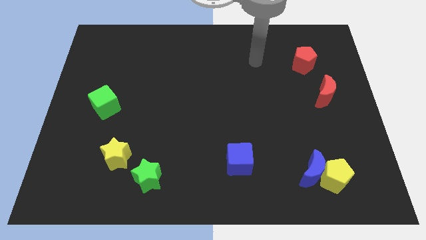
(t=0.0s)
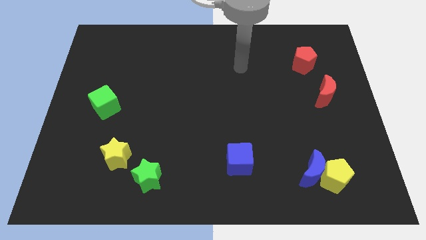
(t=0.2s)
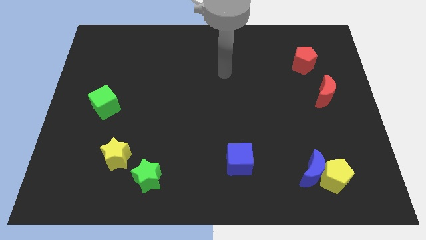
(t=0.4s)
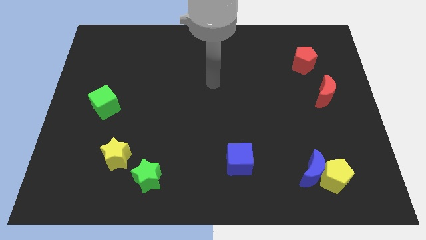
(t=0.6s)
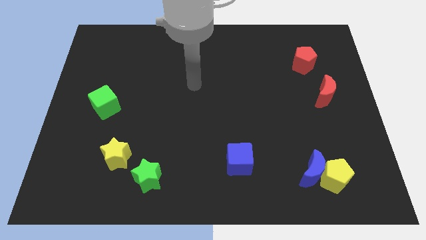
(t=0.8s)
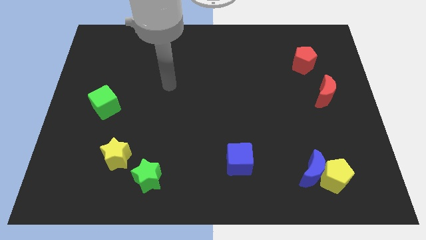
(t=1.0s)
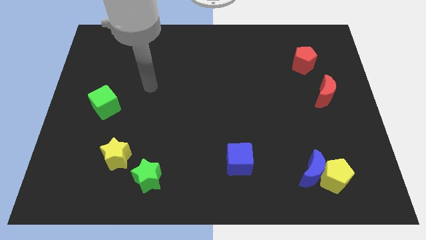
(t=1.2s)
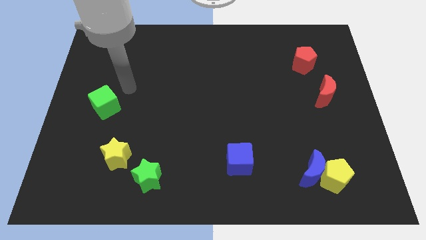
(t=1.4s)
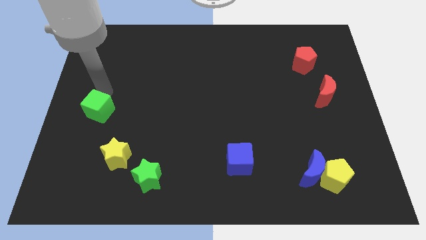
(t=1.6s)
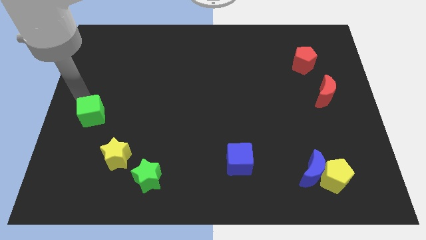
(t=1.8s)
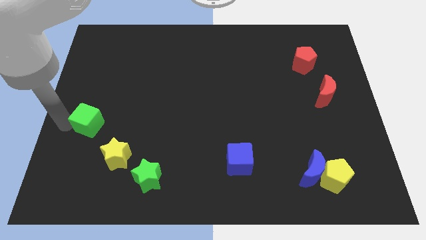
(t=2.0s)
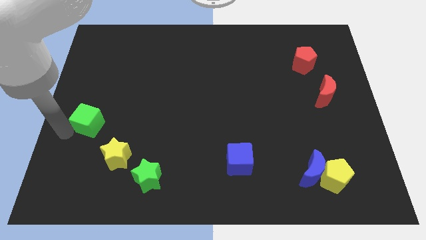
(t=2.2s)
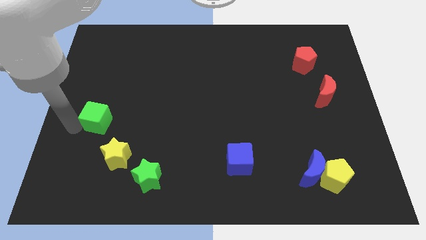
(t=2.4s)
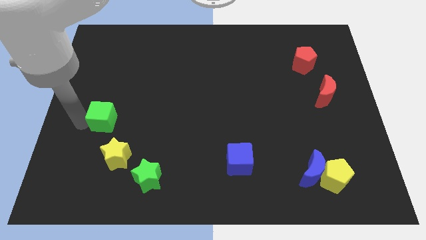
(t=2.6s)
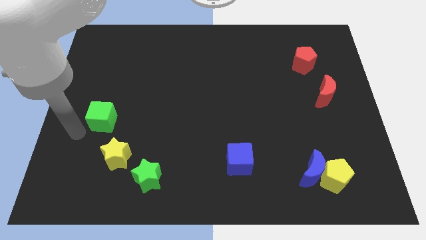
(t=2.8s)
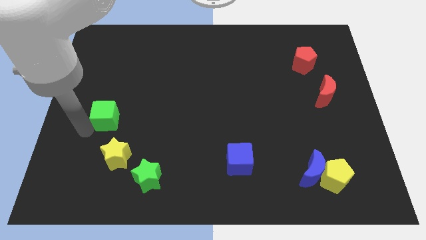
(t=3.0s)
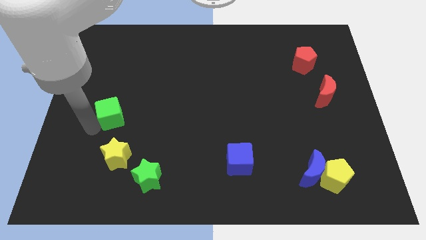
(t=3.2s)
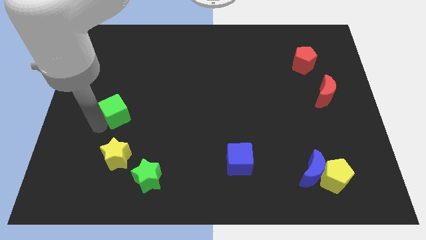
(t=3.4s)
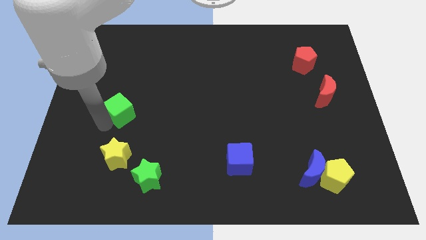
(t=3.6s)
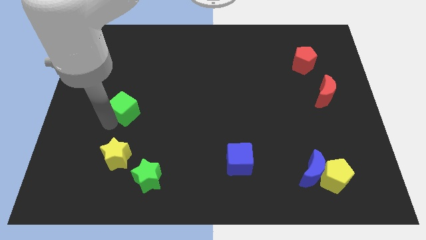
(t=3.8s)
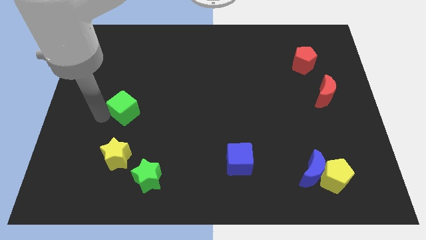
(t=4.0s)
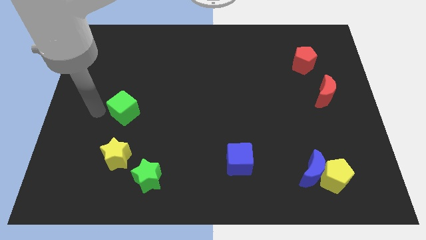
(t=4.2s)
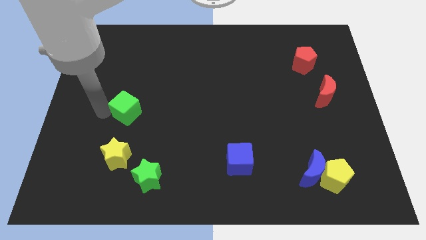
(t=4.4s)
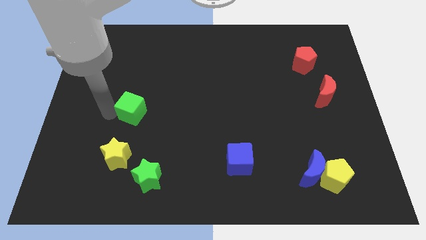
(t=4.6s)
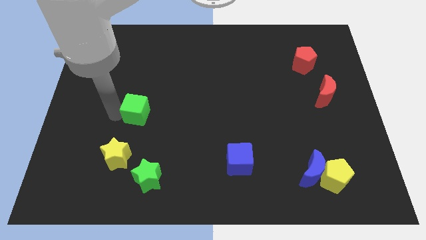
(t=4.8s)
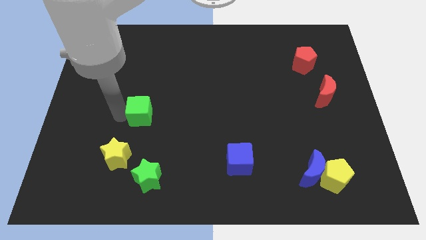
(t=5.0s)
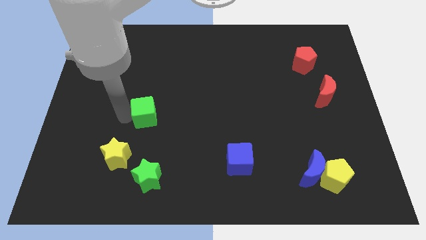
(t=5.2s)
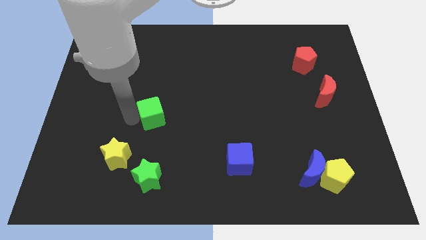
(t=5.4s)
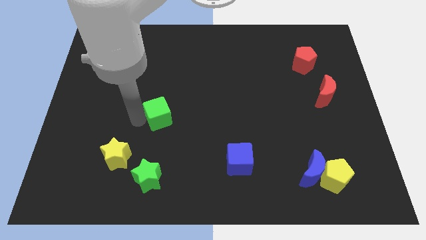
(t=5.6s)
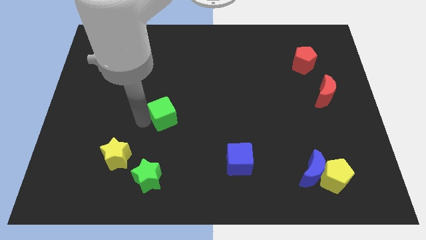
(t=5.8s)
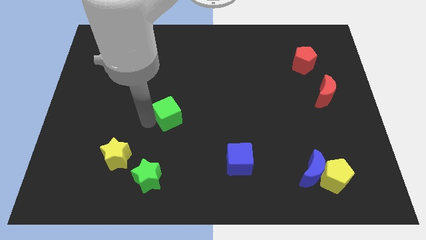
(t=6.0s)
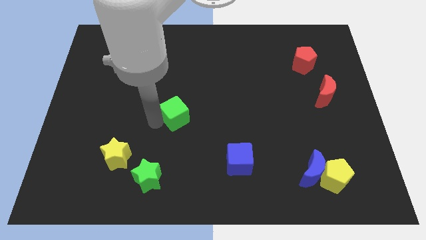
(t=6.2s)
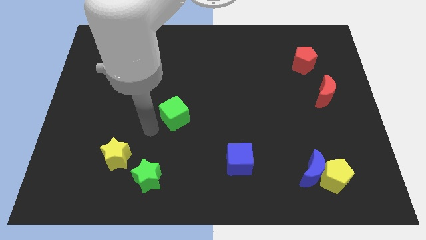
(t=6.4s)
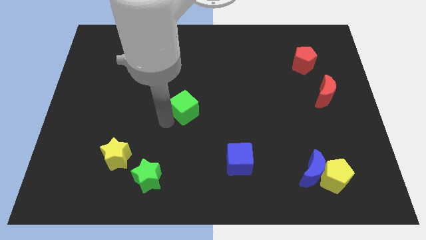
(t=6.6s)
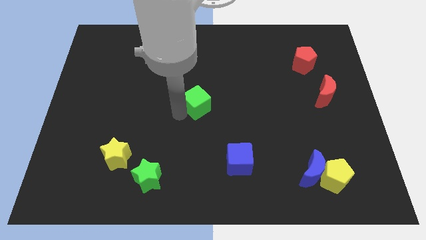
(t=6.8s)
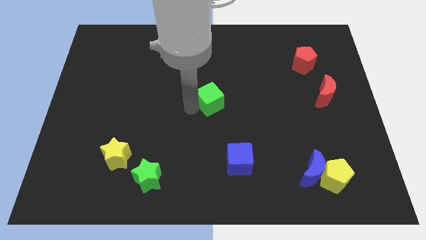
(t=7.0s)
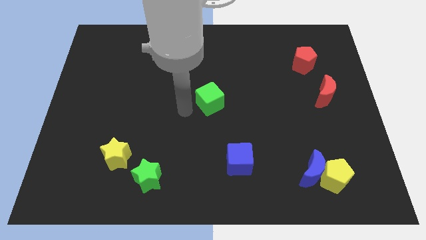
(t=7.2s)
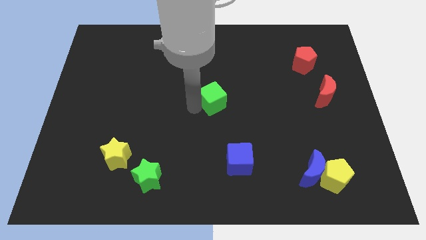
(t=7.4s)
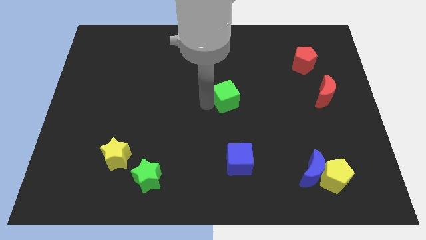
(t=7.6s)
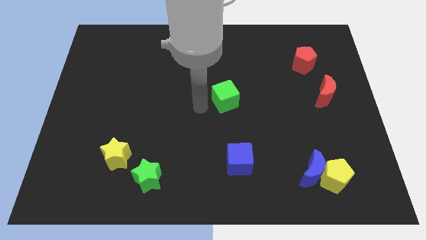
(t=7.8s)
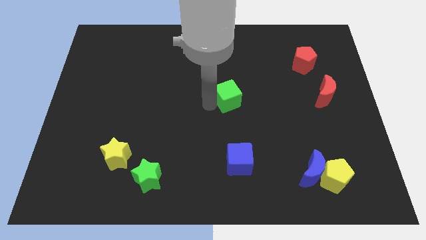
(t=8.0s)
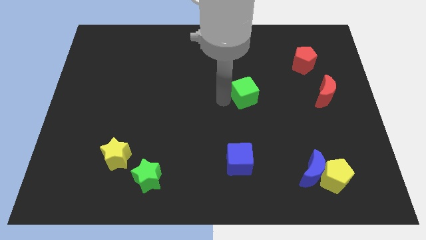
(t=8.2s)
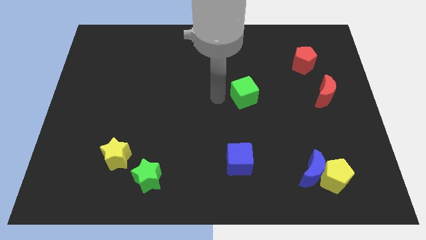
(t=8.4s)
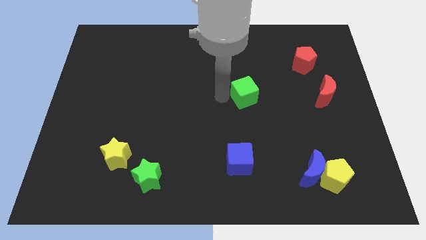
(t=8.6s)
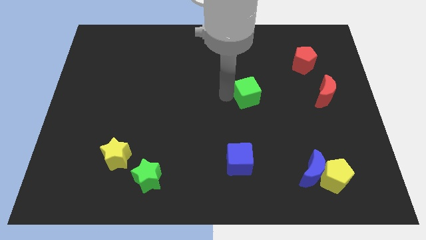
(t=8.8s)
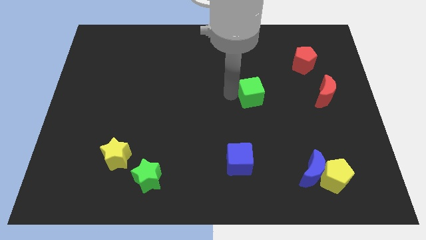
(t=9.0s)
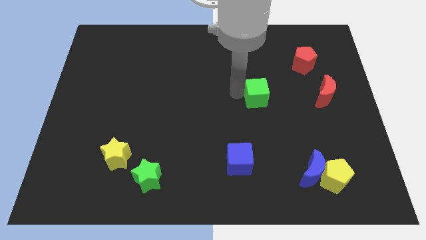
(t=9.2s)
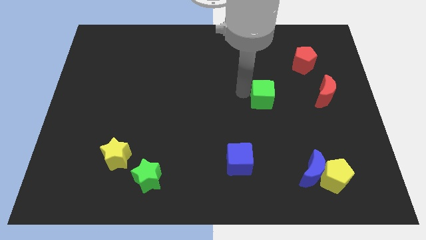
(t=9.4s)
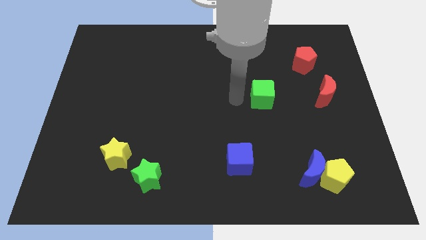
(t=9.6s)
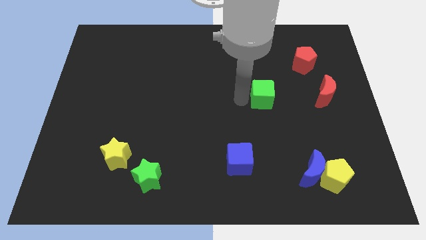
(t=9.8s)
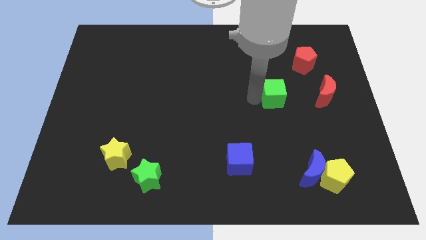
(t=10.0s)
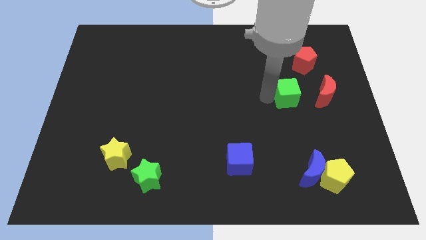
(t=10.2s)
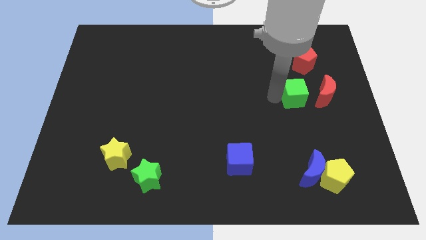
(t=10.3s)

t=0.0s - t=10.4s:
slide the green cube to the bottom of the red pentagon
